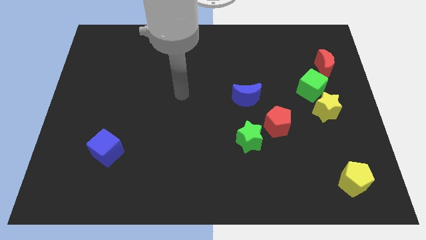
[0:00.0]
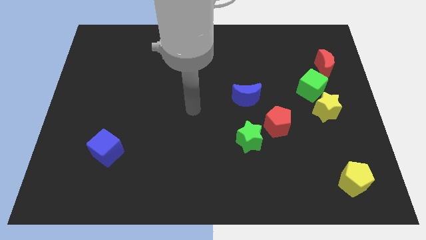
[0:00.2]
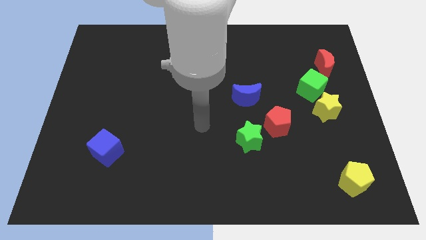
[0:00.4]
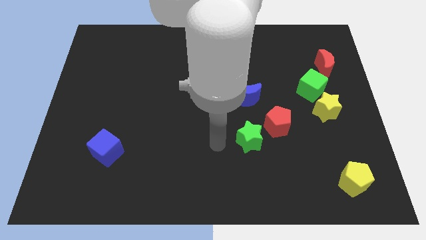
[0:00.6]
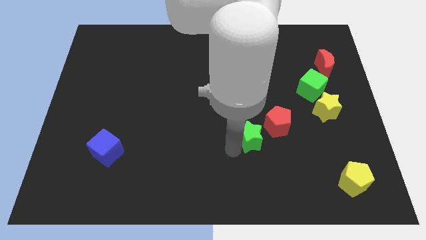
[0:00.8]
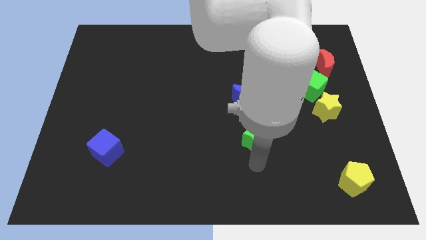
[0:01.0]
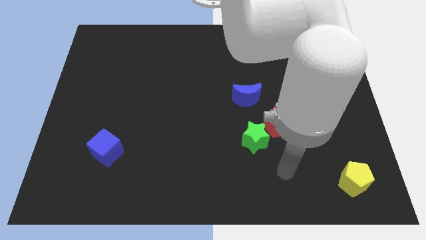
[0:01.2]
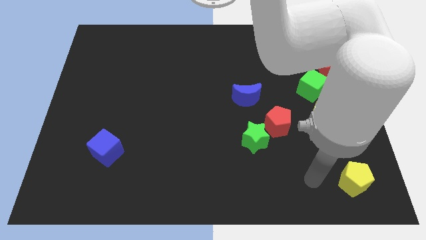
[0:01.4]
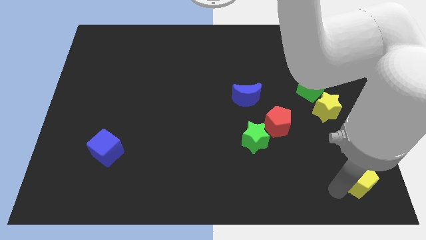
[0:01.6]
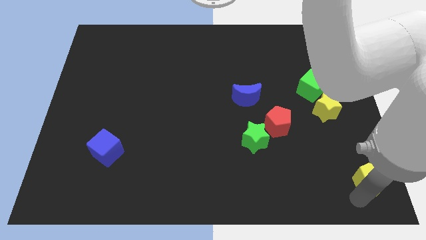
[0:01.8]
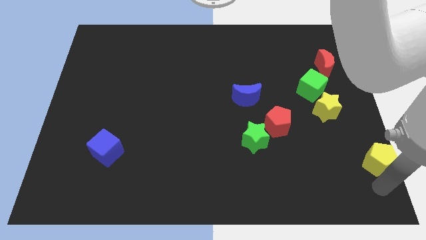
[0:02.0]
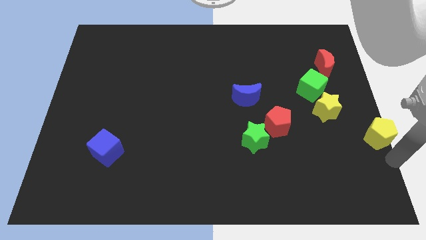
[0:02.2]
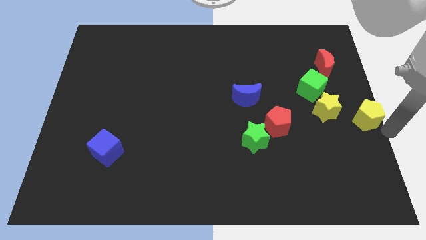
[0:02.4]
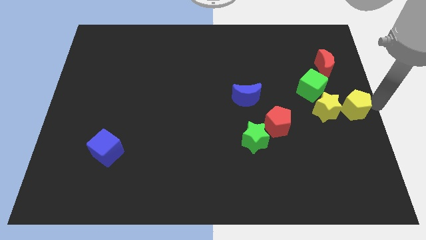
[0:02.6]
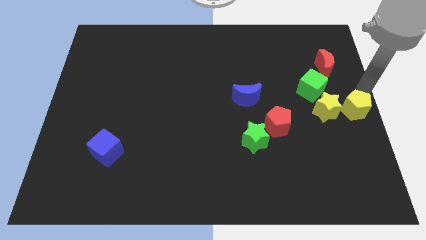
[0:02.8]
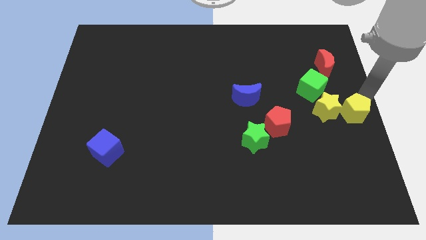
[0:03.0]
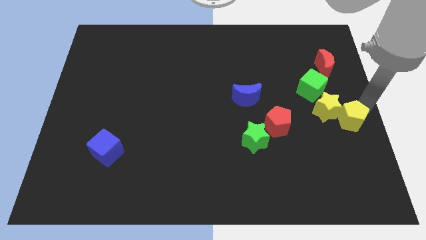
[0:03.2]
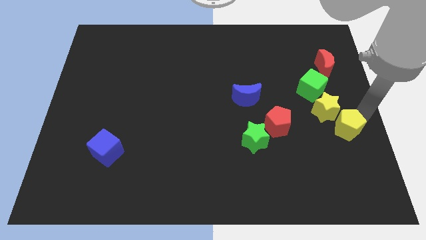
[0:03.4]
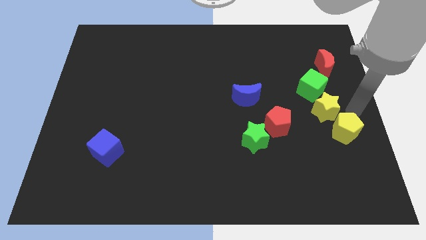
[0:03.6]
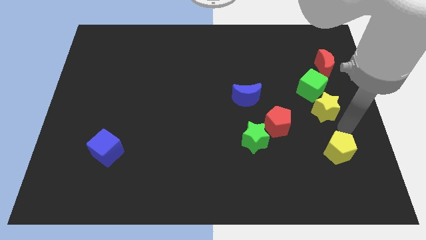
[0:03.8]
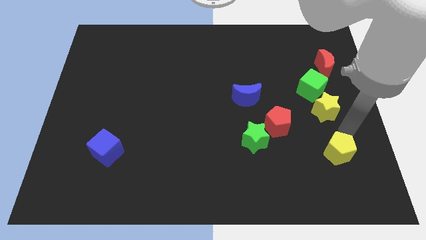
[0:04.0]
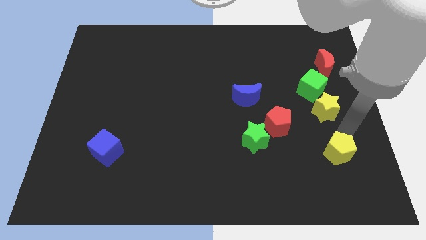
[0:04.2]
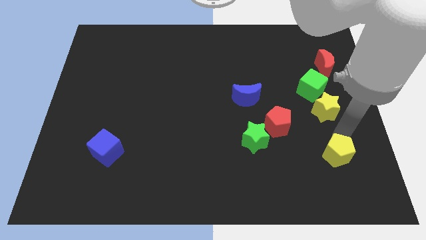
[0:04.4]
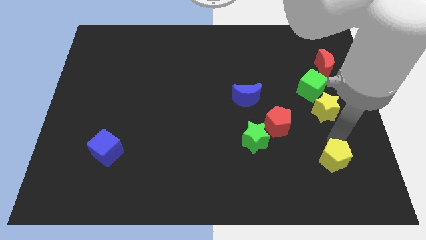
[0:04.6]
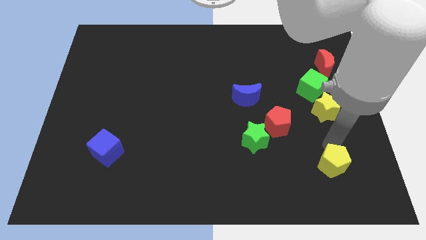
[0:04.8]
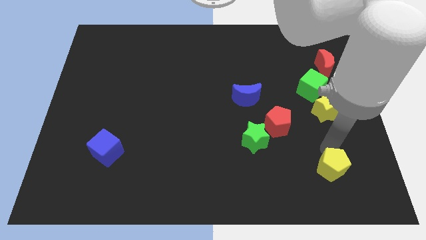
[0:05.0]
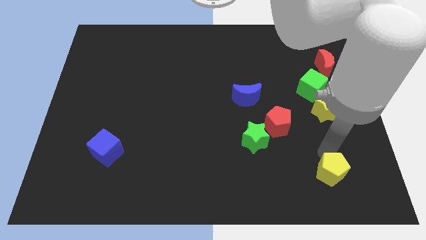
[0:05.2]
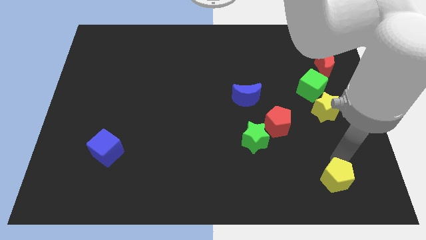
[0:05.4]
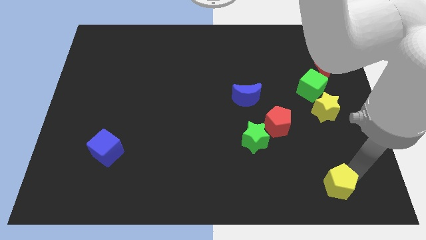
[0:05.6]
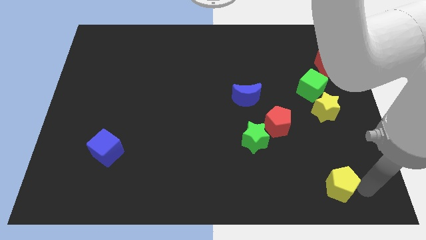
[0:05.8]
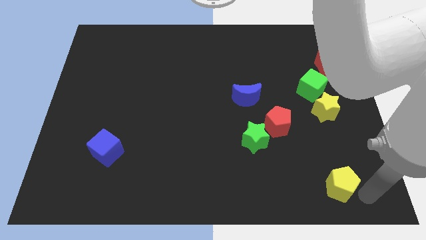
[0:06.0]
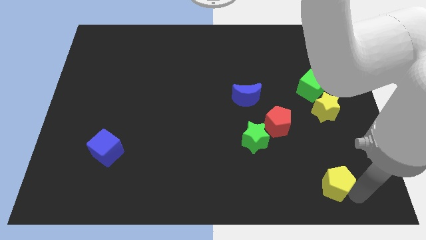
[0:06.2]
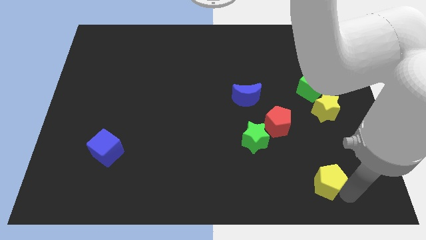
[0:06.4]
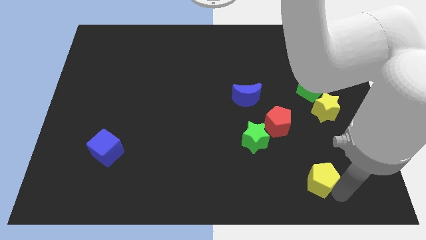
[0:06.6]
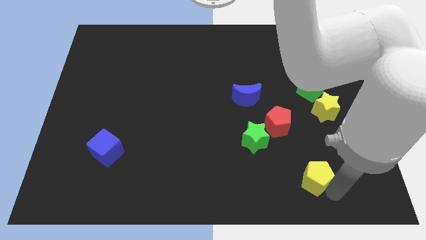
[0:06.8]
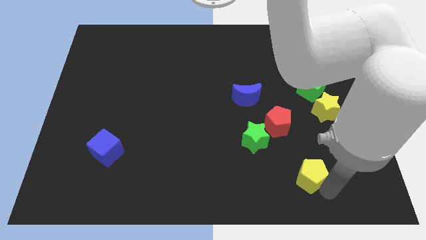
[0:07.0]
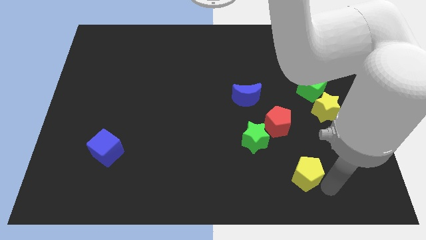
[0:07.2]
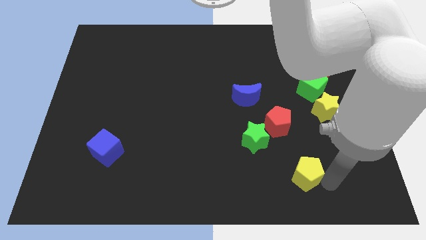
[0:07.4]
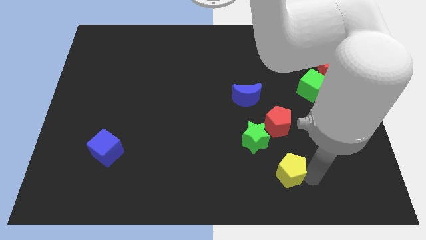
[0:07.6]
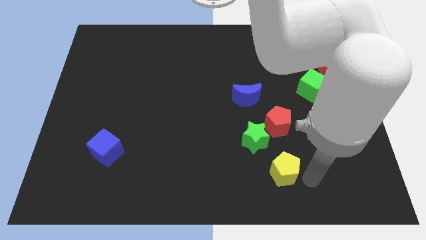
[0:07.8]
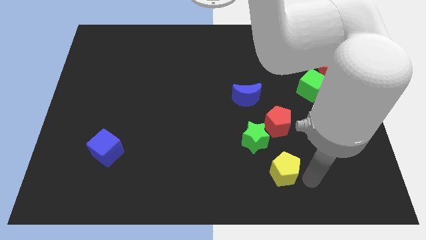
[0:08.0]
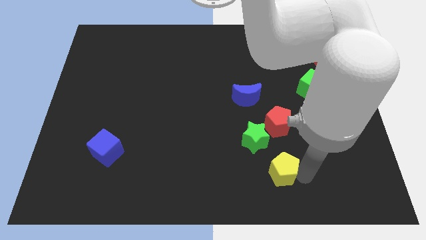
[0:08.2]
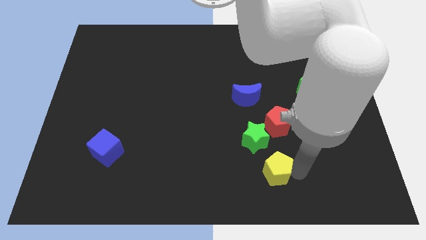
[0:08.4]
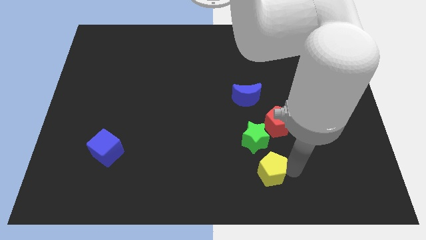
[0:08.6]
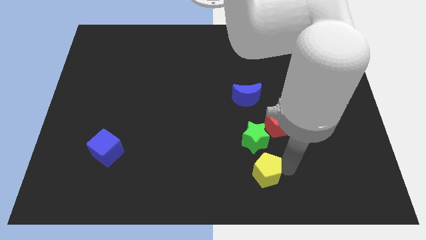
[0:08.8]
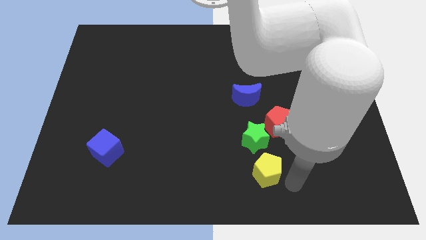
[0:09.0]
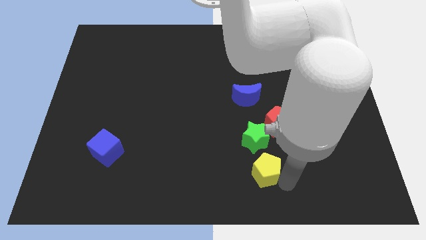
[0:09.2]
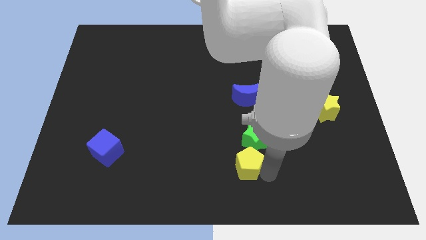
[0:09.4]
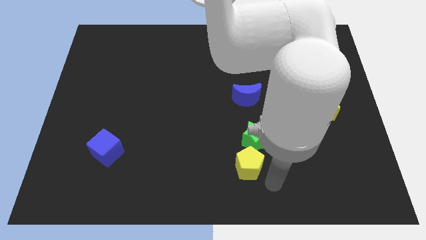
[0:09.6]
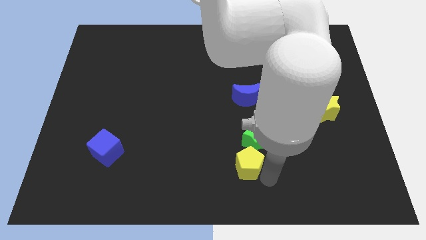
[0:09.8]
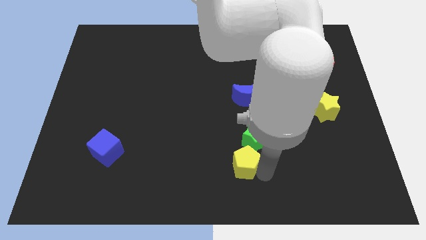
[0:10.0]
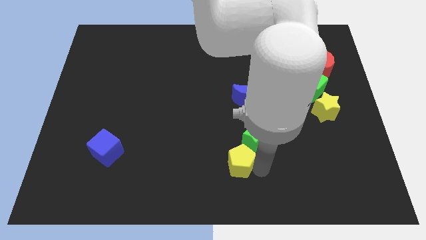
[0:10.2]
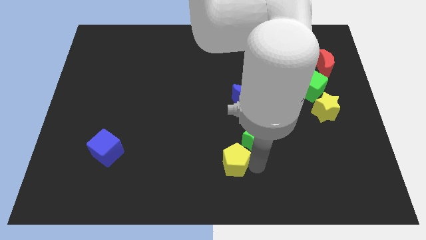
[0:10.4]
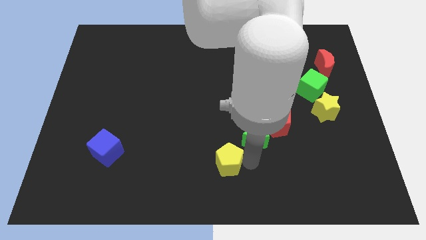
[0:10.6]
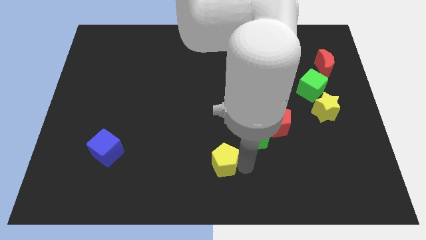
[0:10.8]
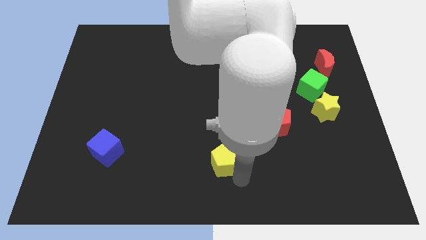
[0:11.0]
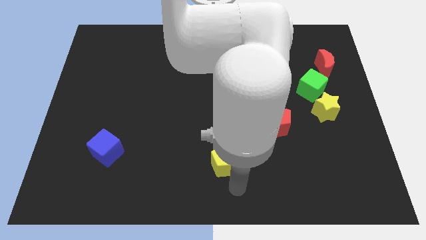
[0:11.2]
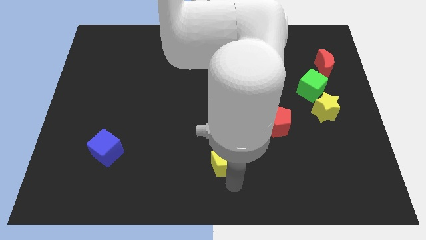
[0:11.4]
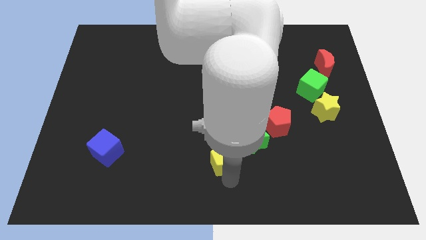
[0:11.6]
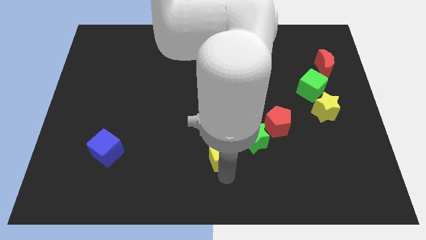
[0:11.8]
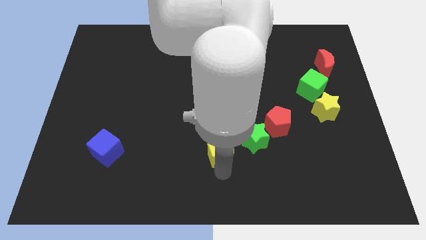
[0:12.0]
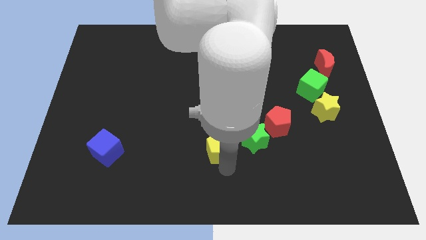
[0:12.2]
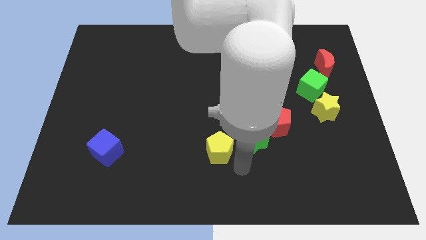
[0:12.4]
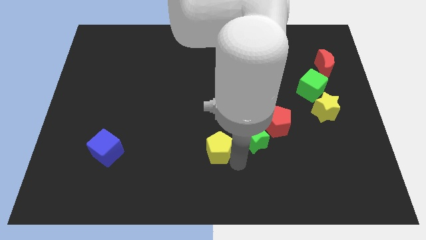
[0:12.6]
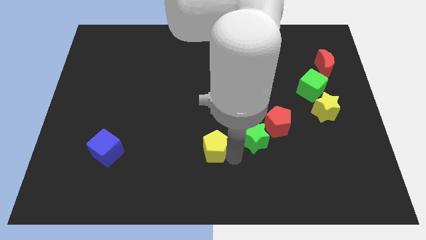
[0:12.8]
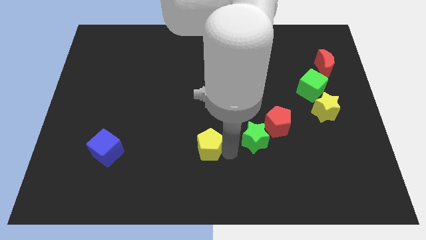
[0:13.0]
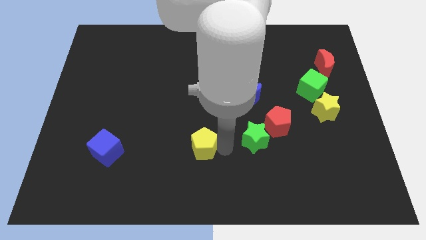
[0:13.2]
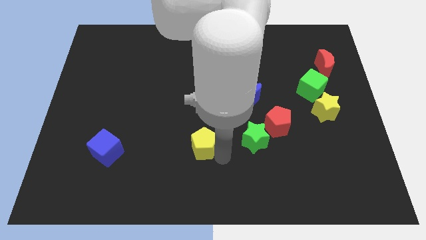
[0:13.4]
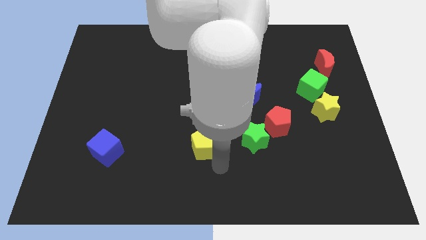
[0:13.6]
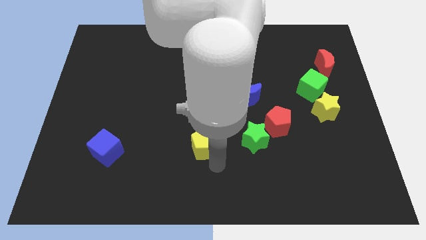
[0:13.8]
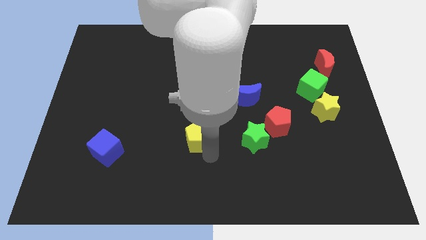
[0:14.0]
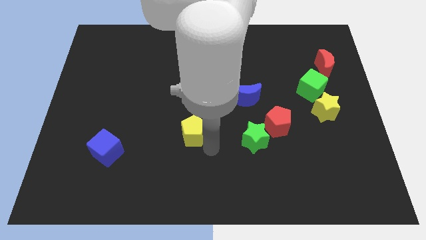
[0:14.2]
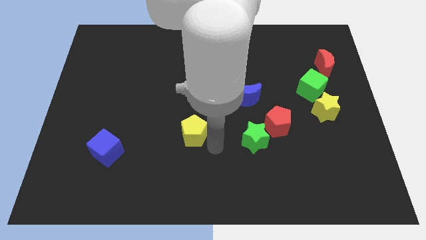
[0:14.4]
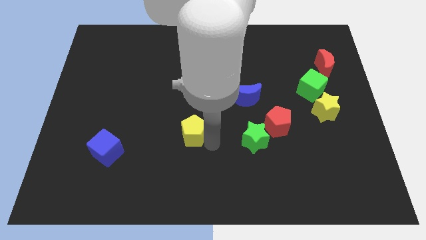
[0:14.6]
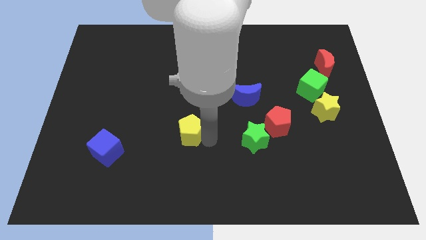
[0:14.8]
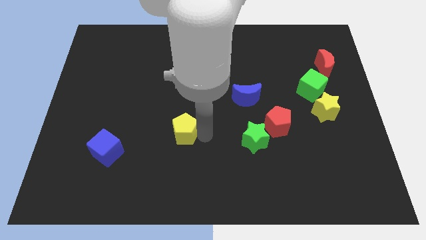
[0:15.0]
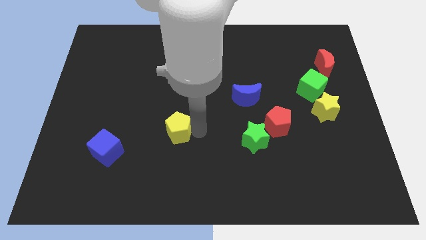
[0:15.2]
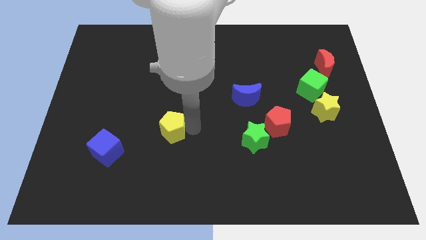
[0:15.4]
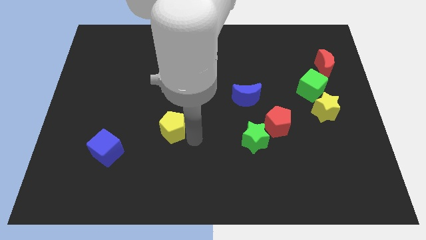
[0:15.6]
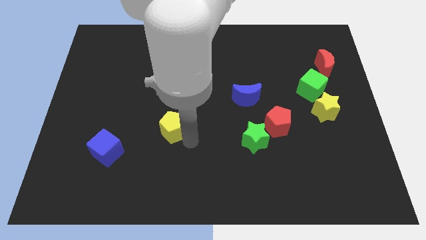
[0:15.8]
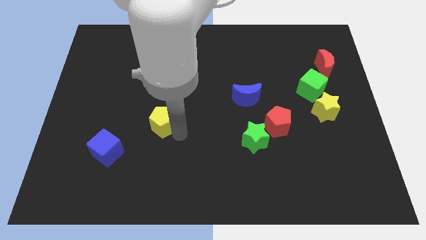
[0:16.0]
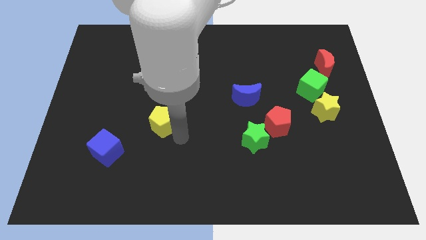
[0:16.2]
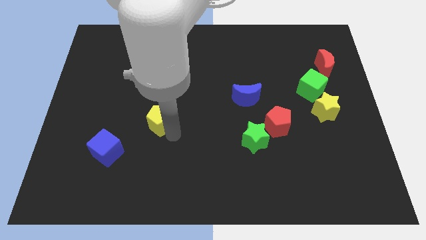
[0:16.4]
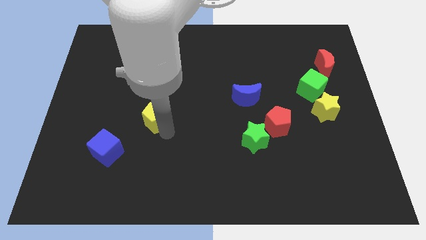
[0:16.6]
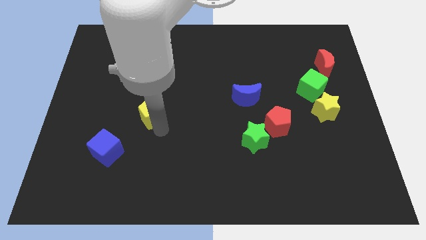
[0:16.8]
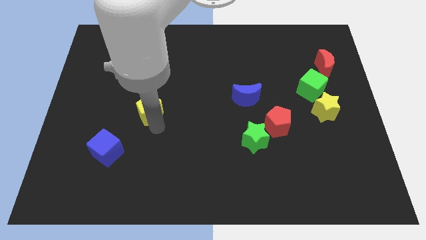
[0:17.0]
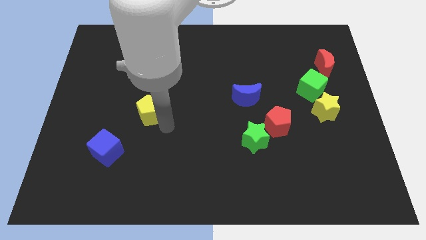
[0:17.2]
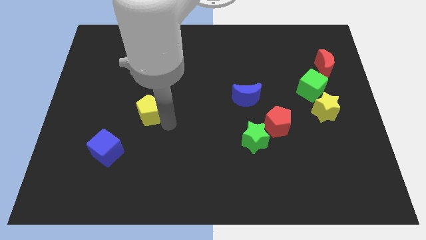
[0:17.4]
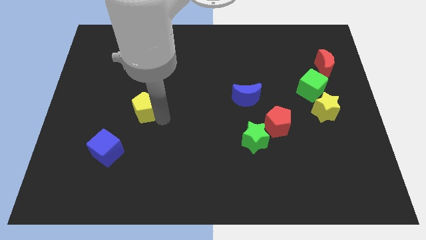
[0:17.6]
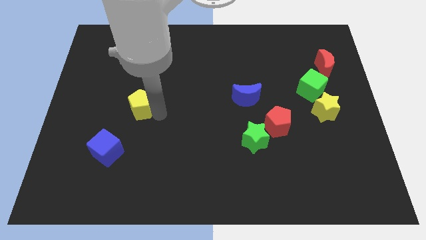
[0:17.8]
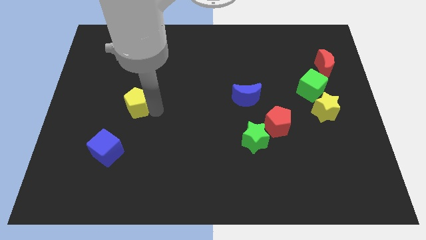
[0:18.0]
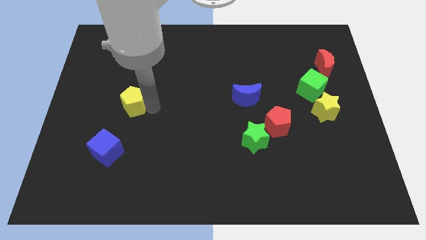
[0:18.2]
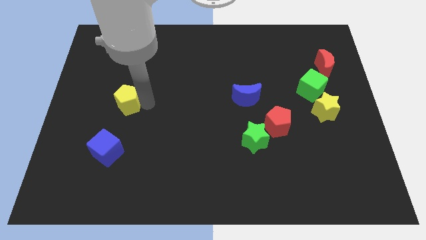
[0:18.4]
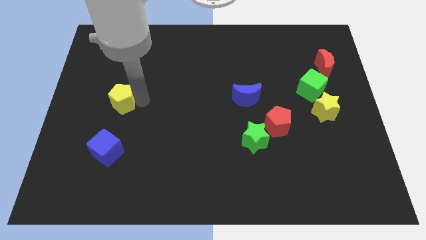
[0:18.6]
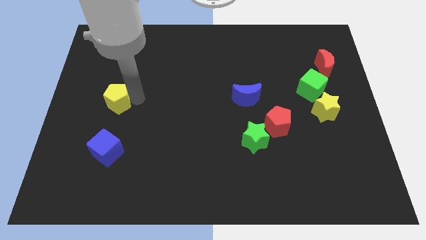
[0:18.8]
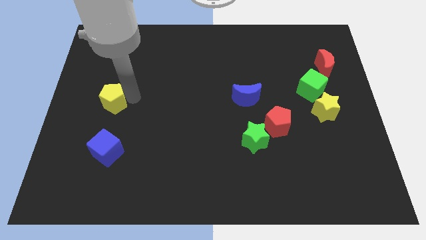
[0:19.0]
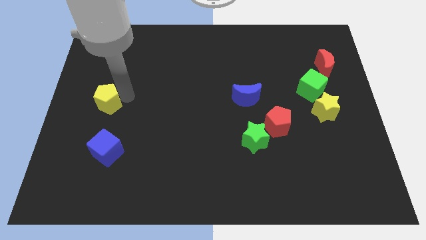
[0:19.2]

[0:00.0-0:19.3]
put the yellow pentagon to the left side
